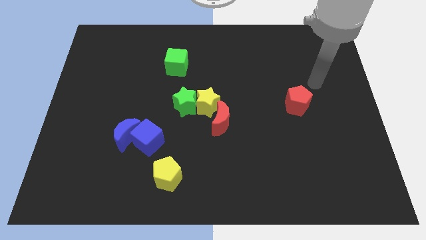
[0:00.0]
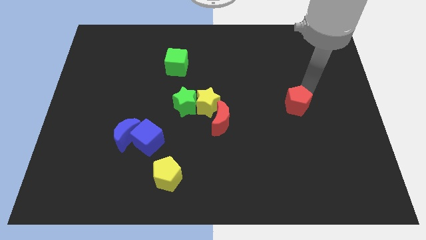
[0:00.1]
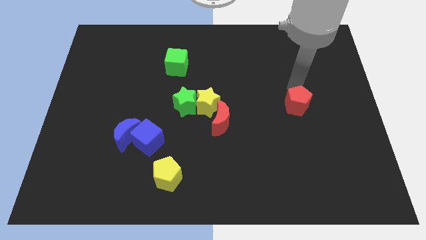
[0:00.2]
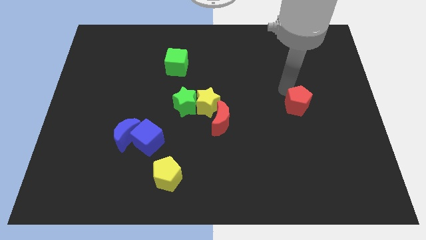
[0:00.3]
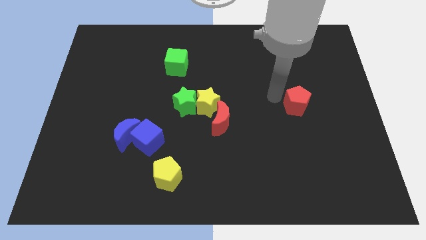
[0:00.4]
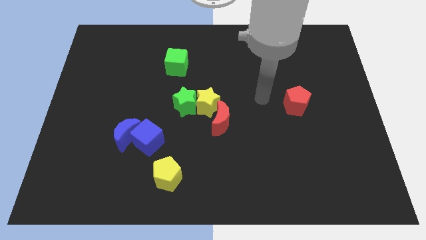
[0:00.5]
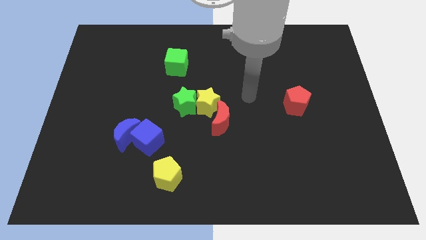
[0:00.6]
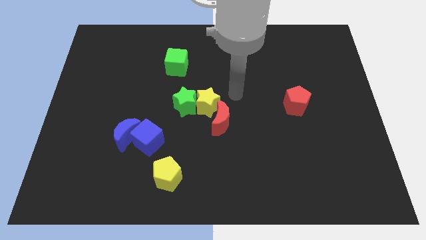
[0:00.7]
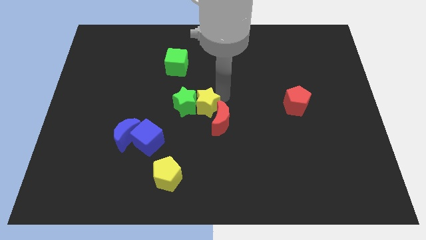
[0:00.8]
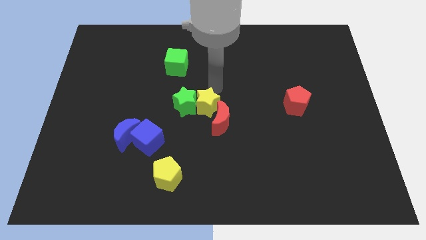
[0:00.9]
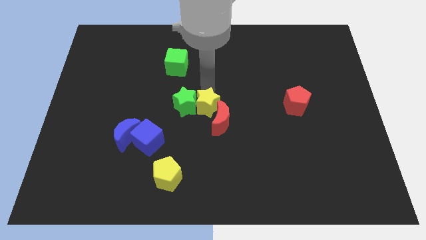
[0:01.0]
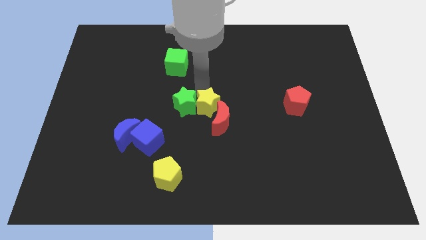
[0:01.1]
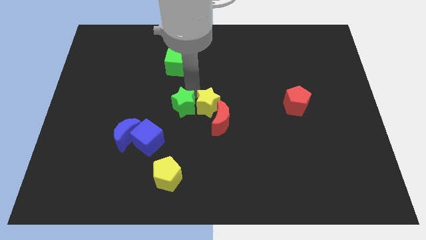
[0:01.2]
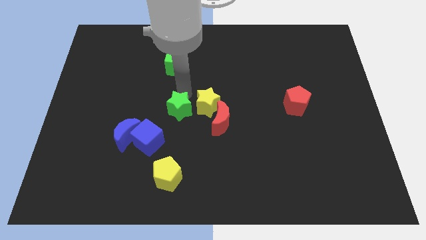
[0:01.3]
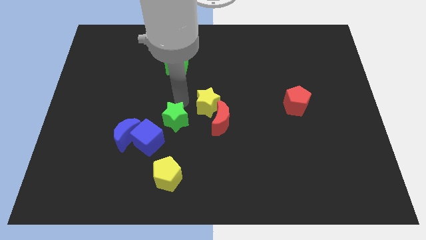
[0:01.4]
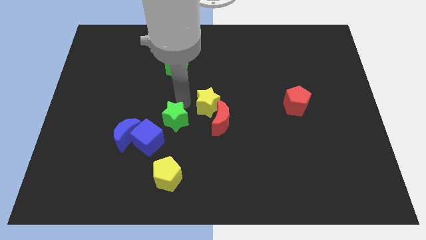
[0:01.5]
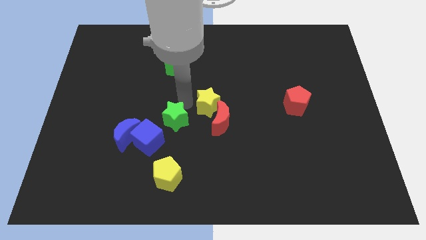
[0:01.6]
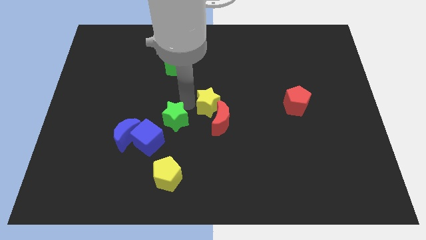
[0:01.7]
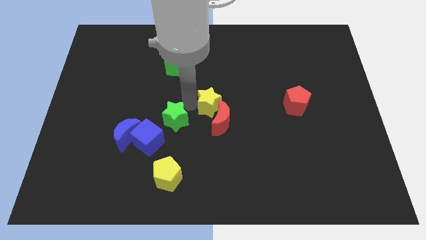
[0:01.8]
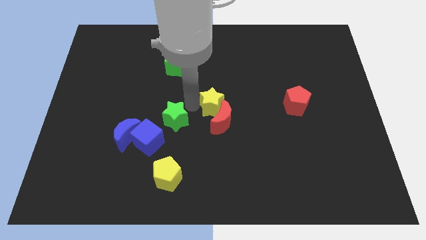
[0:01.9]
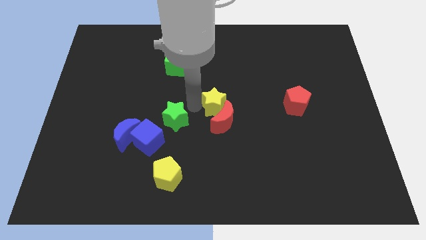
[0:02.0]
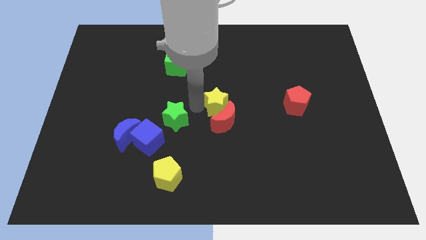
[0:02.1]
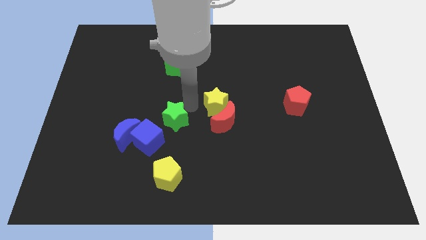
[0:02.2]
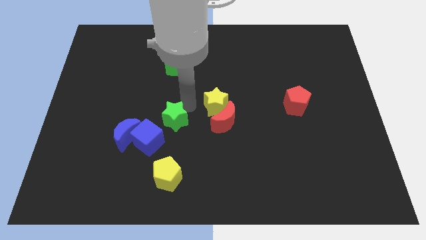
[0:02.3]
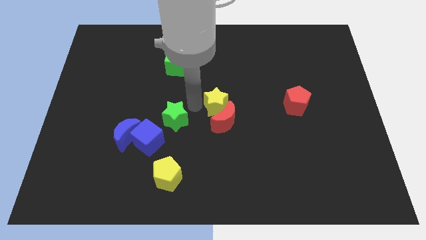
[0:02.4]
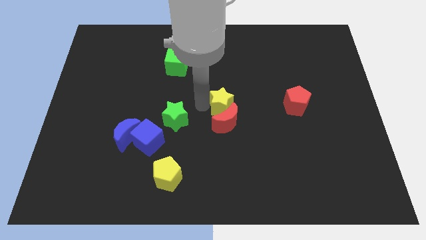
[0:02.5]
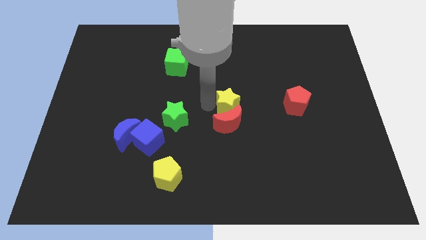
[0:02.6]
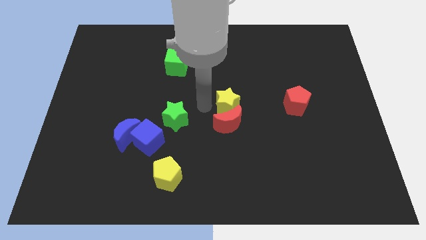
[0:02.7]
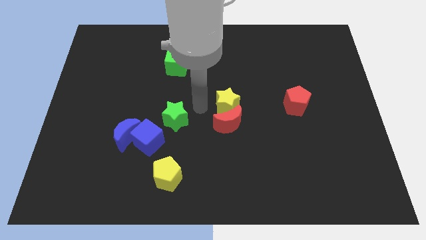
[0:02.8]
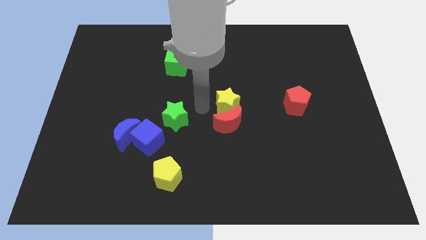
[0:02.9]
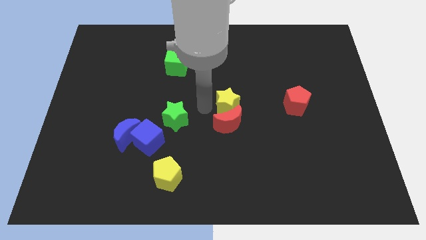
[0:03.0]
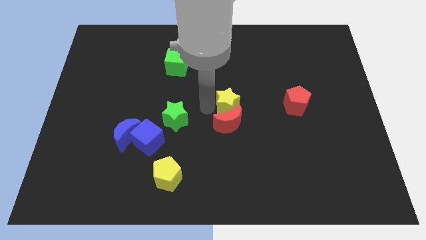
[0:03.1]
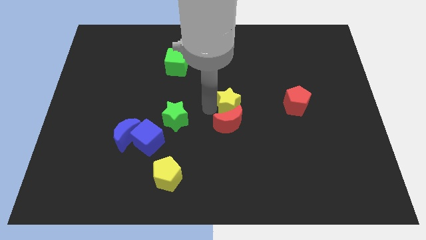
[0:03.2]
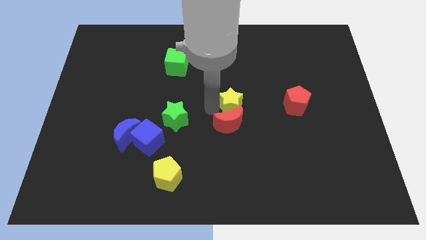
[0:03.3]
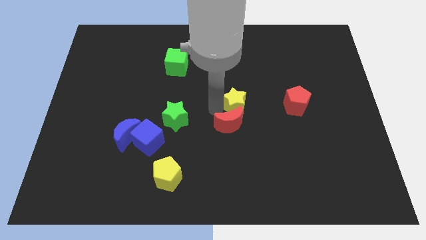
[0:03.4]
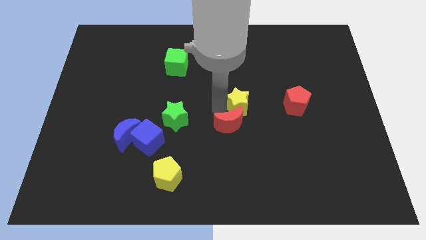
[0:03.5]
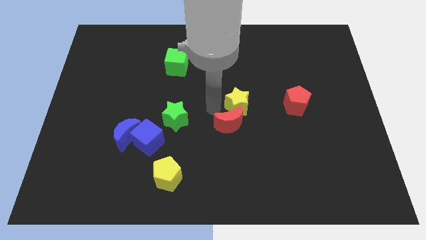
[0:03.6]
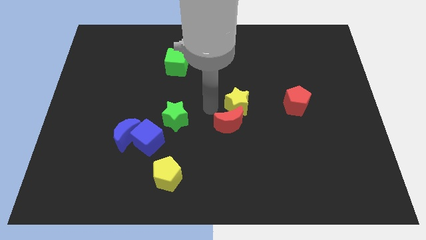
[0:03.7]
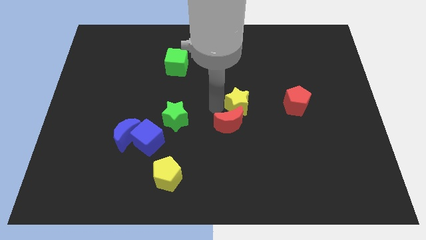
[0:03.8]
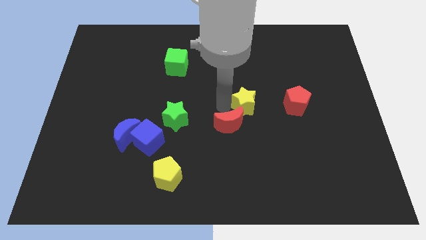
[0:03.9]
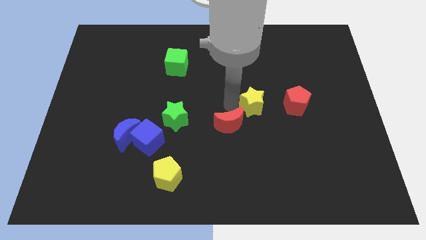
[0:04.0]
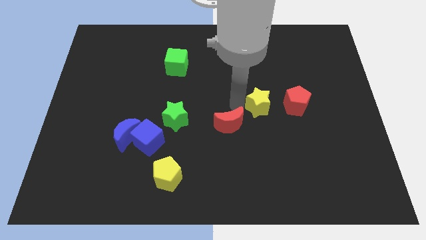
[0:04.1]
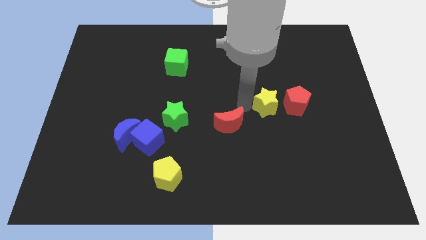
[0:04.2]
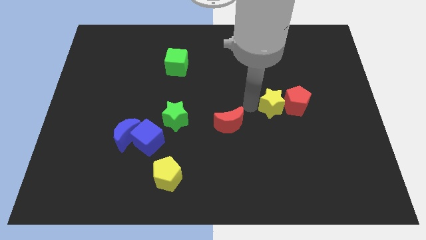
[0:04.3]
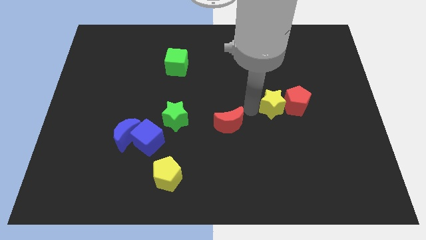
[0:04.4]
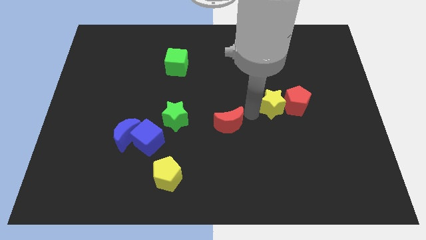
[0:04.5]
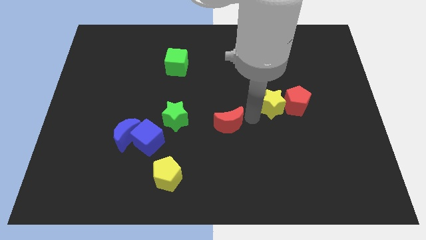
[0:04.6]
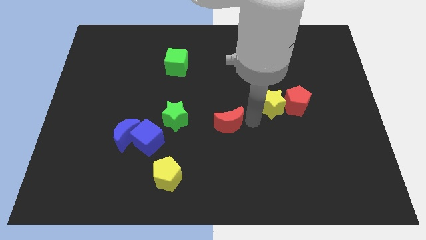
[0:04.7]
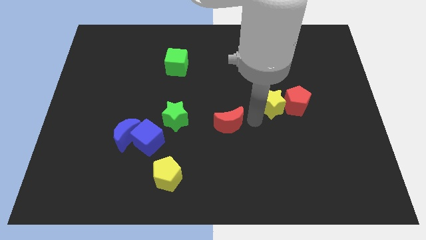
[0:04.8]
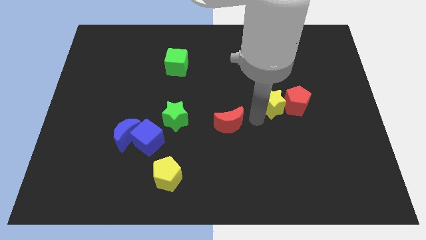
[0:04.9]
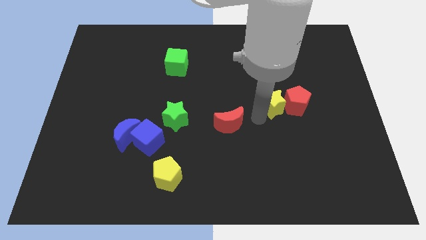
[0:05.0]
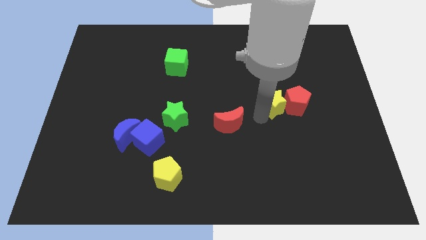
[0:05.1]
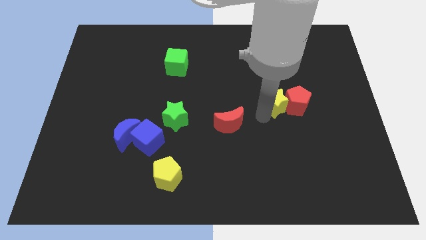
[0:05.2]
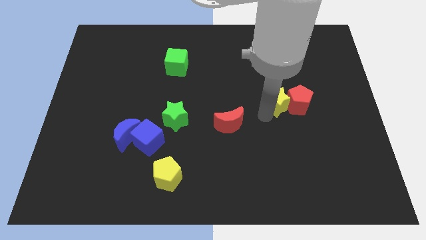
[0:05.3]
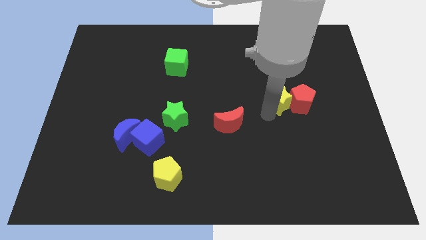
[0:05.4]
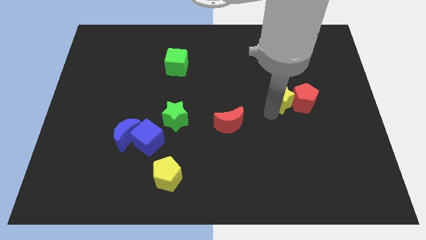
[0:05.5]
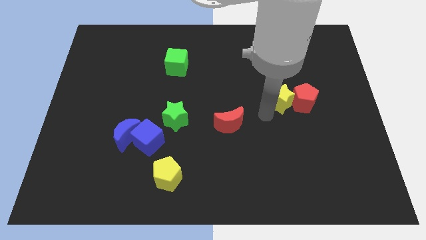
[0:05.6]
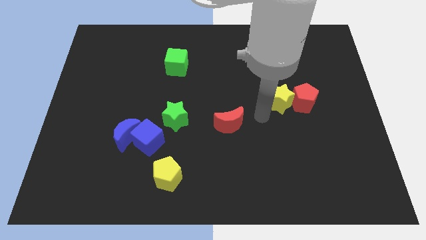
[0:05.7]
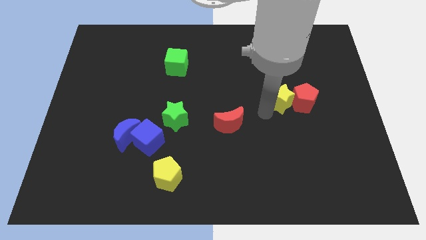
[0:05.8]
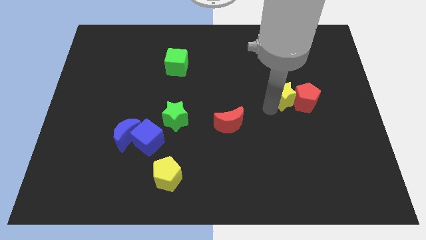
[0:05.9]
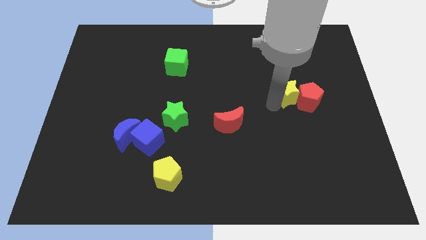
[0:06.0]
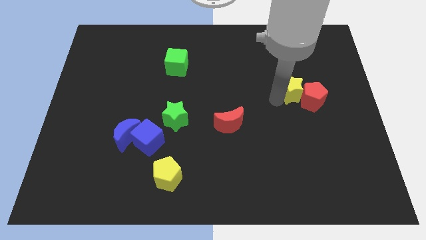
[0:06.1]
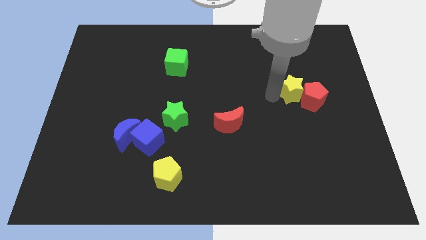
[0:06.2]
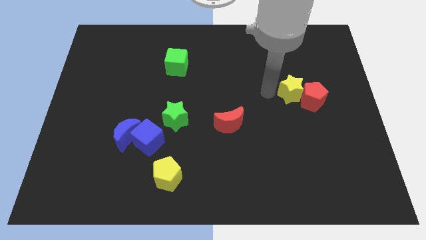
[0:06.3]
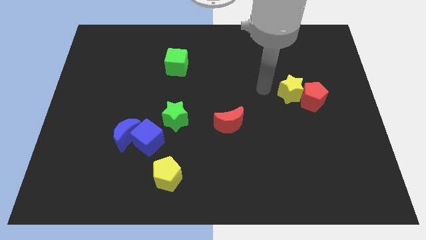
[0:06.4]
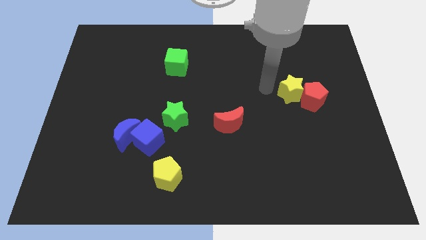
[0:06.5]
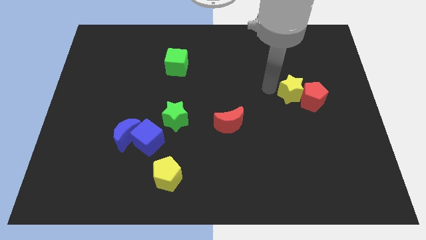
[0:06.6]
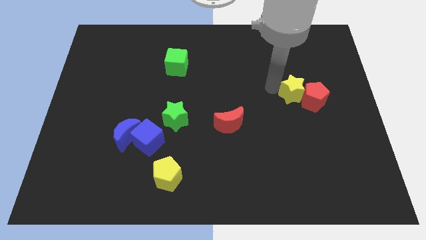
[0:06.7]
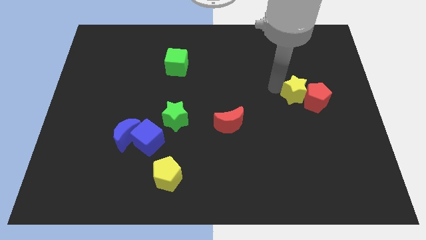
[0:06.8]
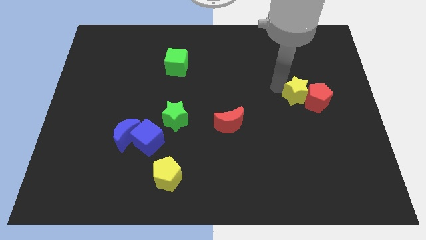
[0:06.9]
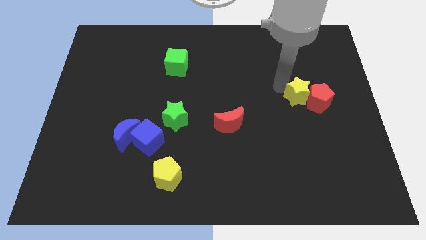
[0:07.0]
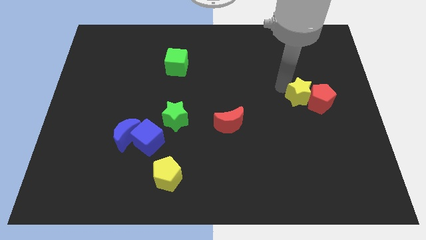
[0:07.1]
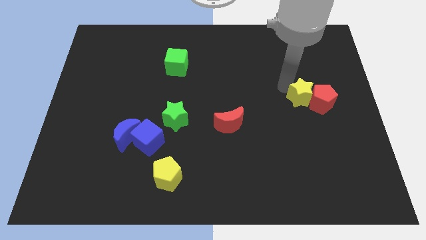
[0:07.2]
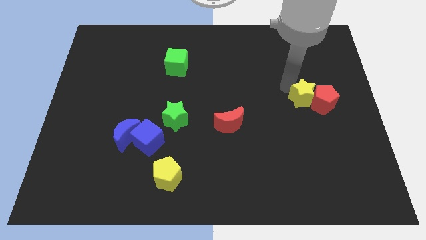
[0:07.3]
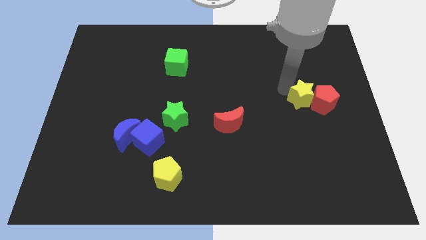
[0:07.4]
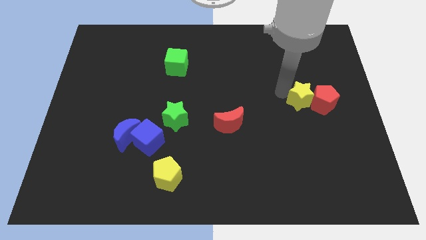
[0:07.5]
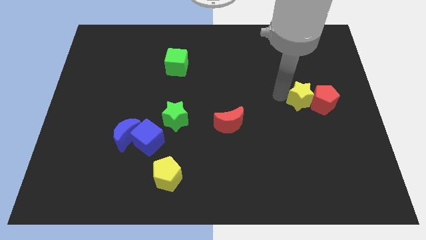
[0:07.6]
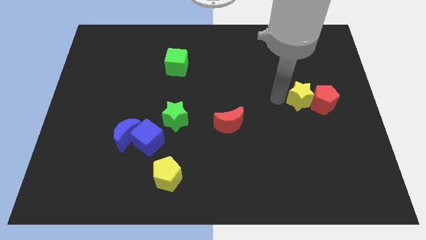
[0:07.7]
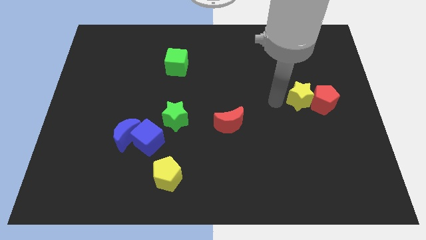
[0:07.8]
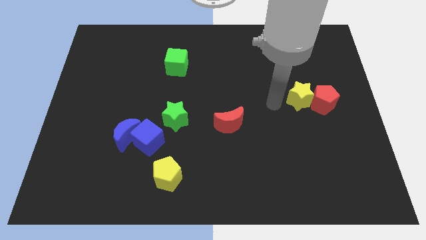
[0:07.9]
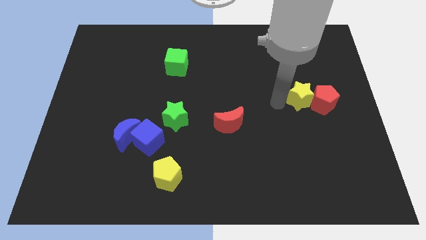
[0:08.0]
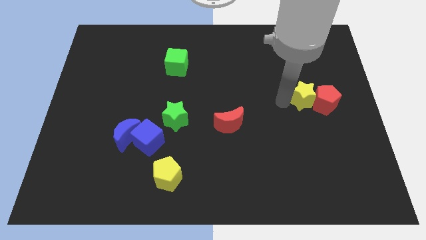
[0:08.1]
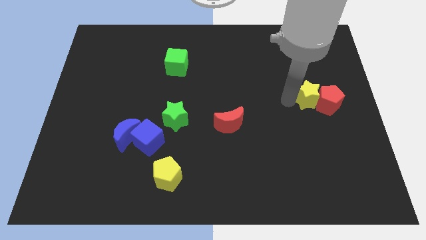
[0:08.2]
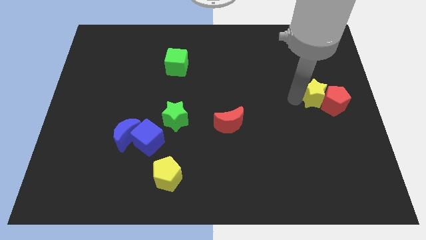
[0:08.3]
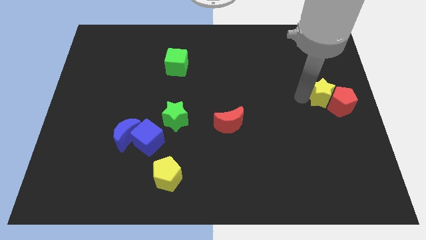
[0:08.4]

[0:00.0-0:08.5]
slide the yellow star to the right side of the board
